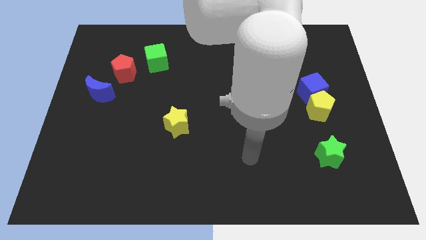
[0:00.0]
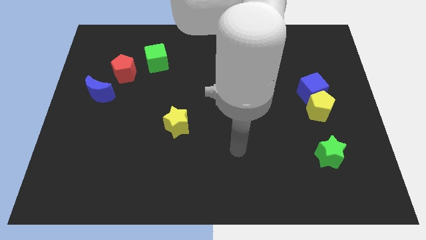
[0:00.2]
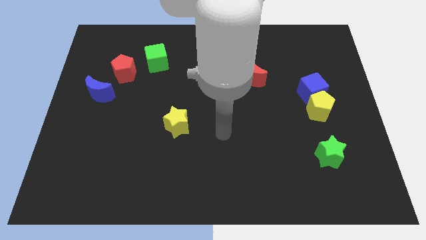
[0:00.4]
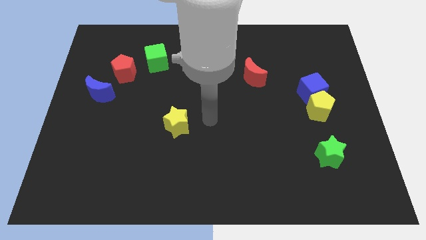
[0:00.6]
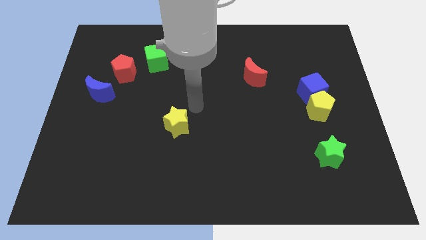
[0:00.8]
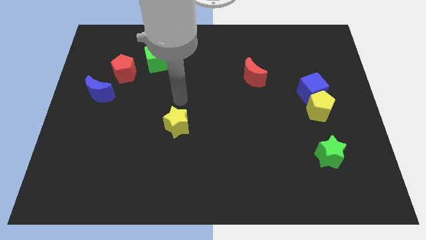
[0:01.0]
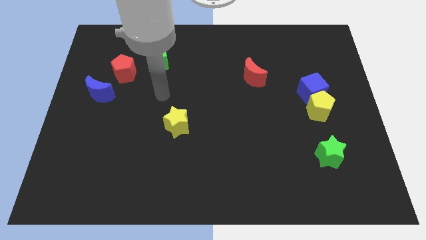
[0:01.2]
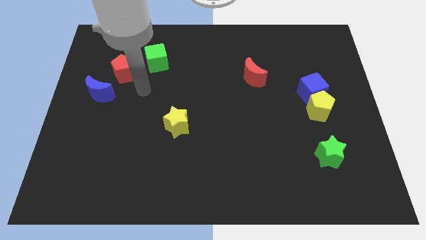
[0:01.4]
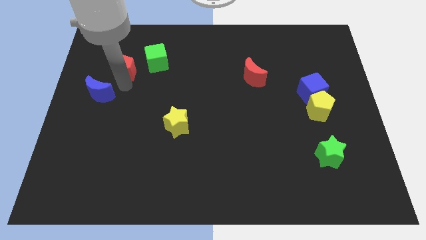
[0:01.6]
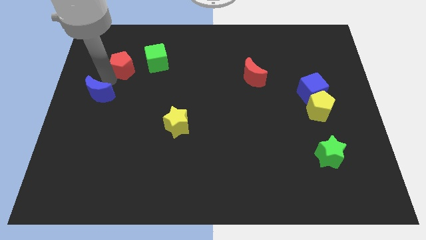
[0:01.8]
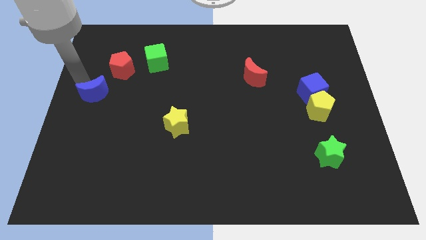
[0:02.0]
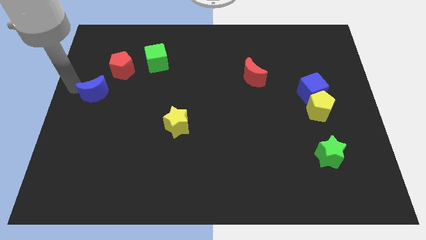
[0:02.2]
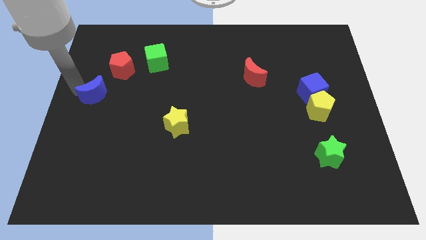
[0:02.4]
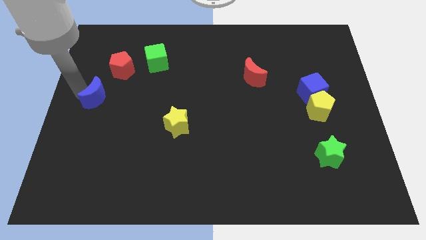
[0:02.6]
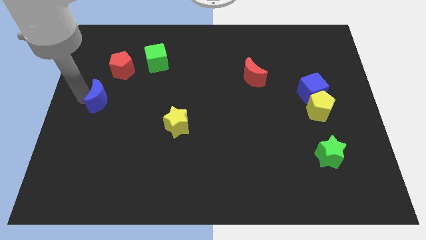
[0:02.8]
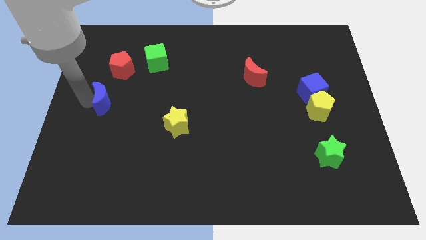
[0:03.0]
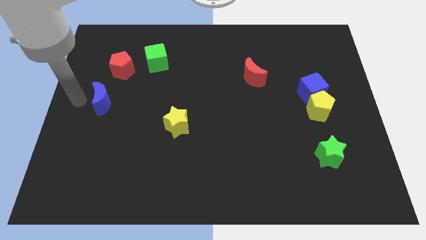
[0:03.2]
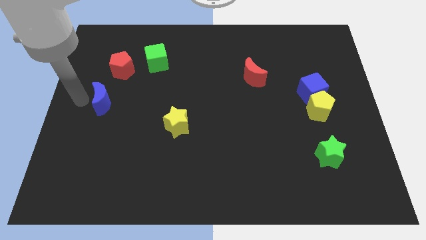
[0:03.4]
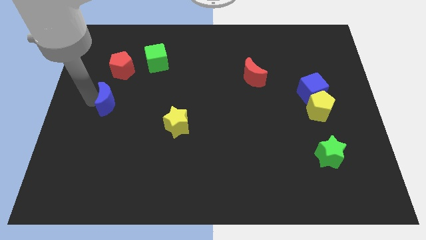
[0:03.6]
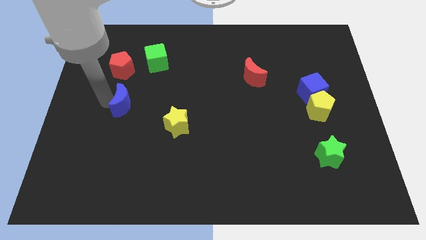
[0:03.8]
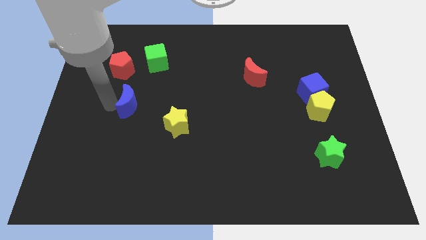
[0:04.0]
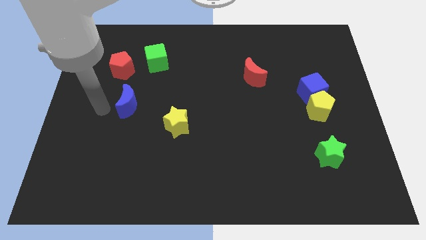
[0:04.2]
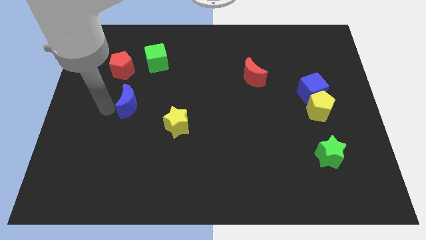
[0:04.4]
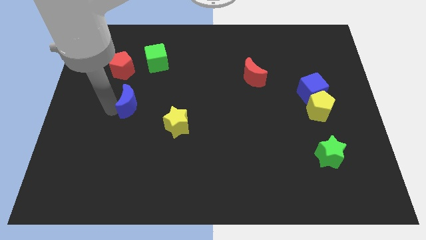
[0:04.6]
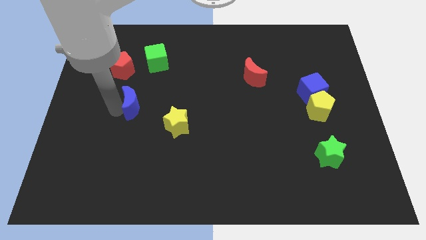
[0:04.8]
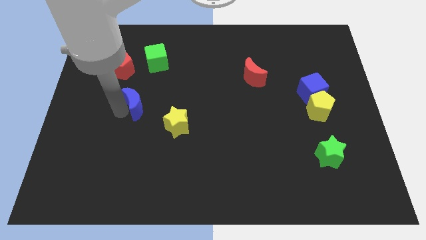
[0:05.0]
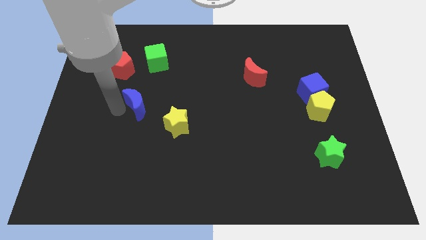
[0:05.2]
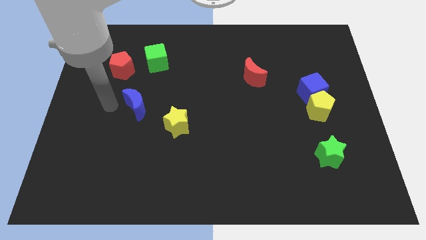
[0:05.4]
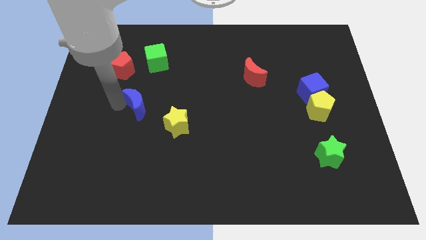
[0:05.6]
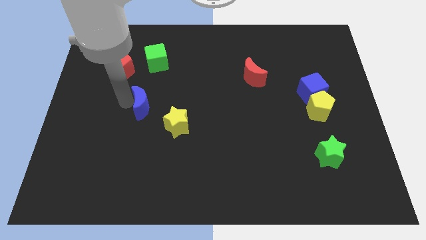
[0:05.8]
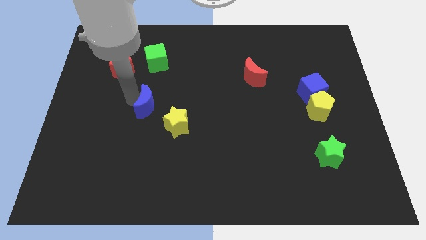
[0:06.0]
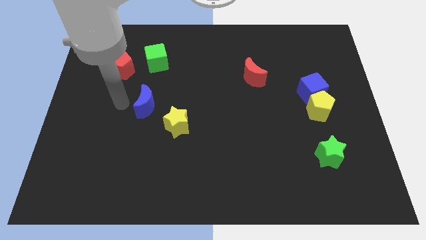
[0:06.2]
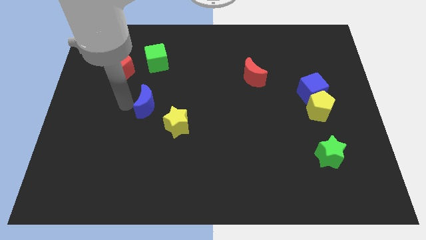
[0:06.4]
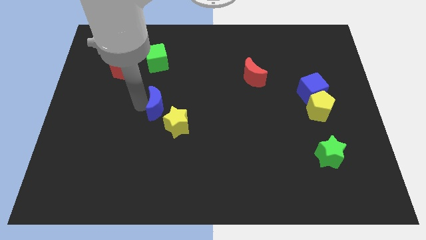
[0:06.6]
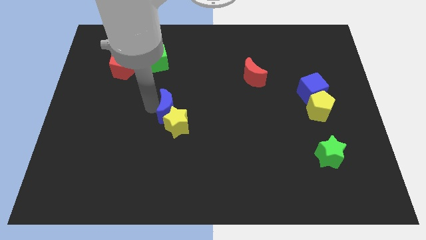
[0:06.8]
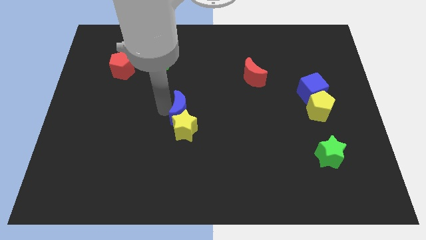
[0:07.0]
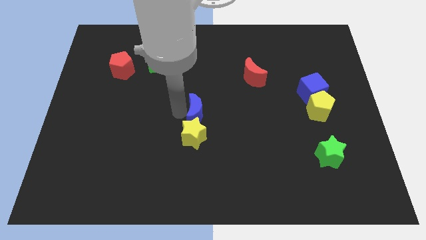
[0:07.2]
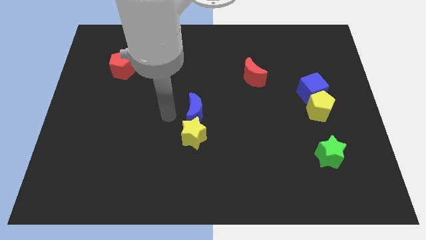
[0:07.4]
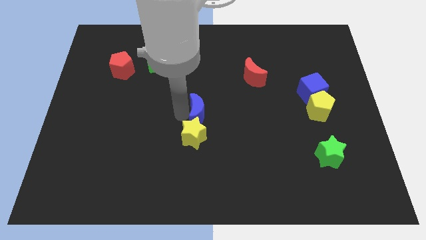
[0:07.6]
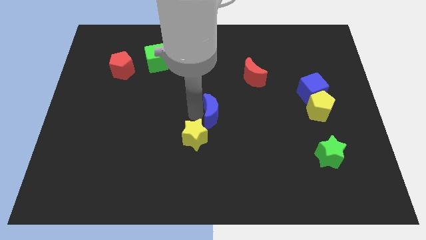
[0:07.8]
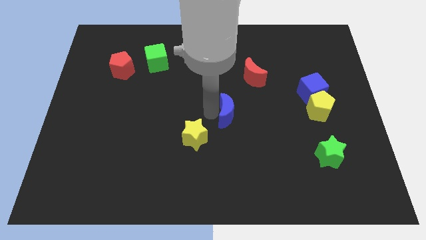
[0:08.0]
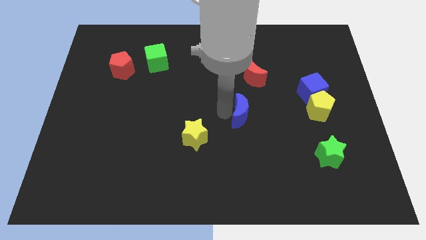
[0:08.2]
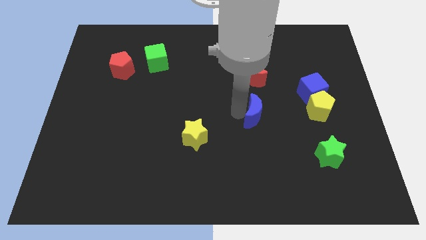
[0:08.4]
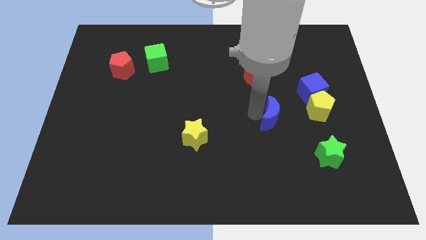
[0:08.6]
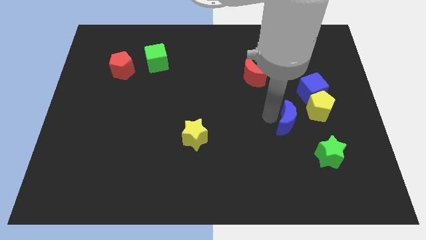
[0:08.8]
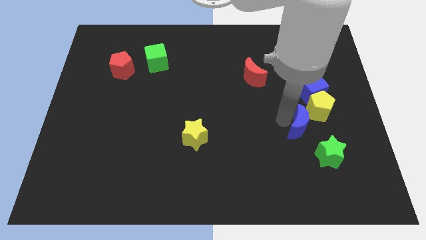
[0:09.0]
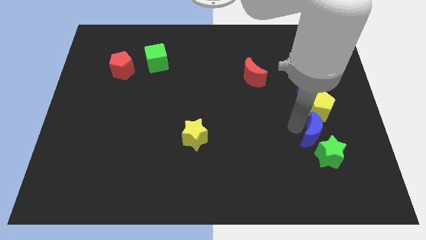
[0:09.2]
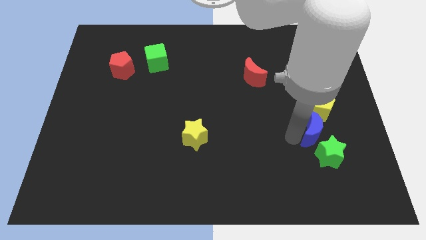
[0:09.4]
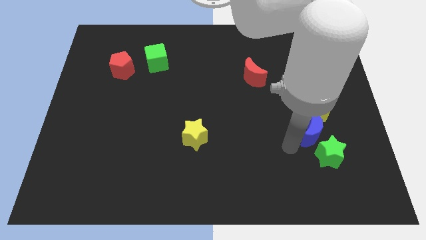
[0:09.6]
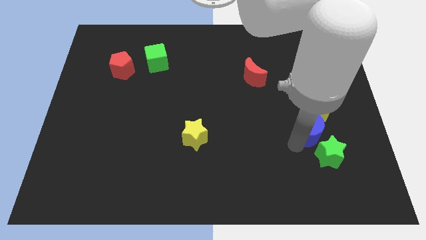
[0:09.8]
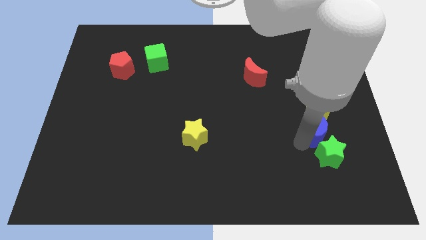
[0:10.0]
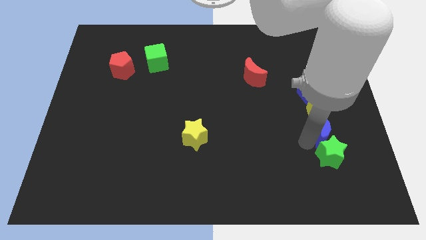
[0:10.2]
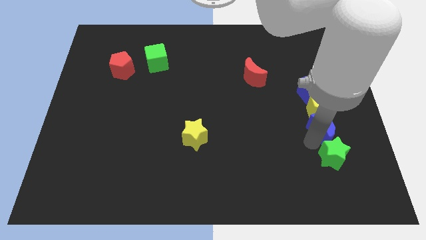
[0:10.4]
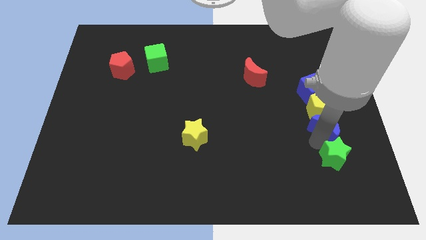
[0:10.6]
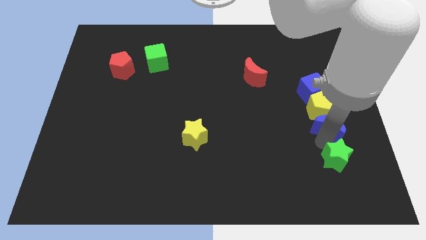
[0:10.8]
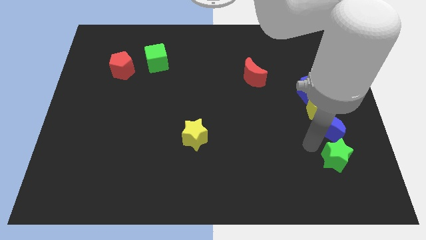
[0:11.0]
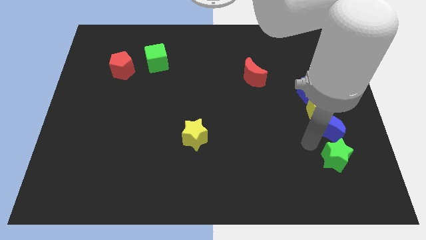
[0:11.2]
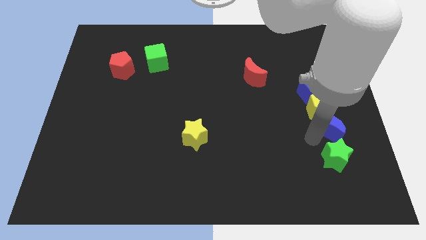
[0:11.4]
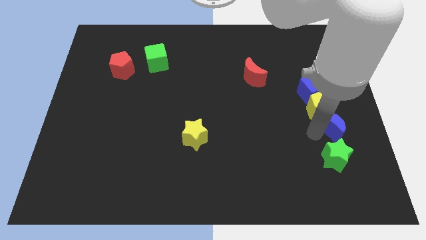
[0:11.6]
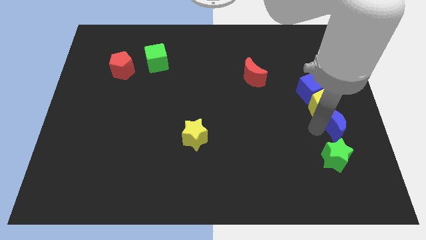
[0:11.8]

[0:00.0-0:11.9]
slide the blue moon to the right side
